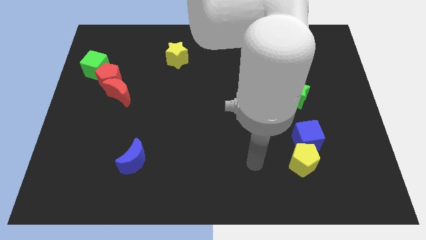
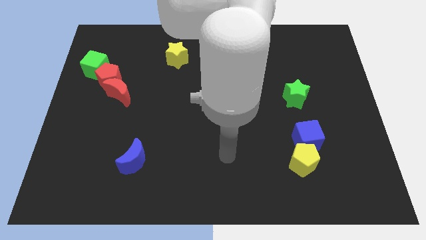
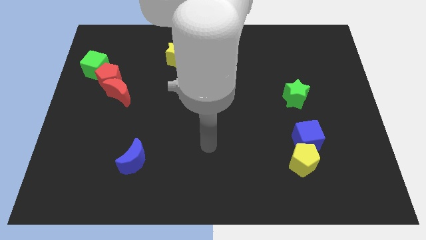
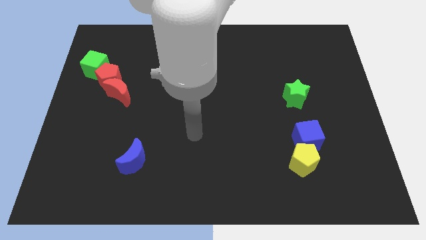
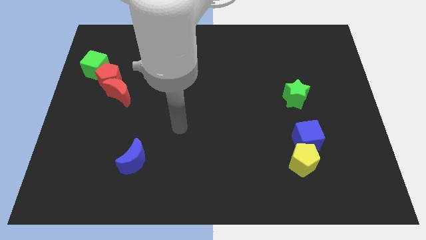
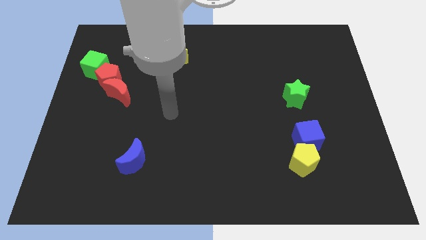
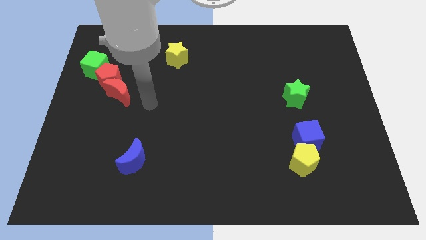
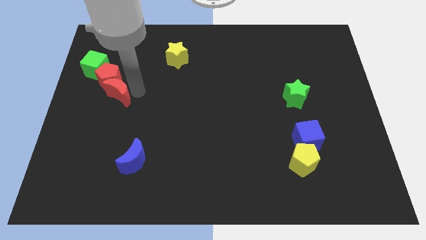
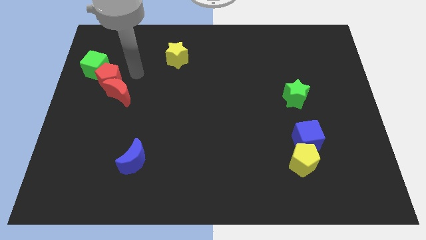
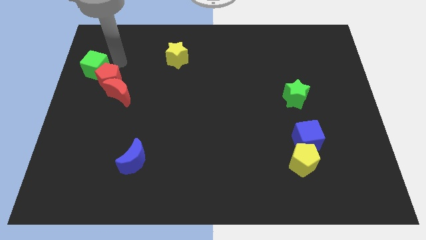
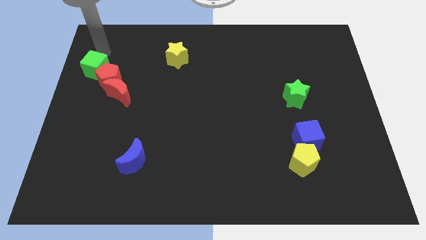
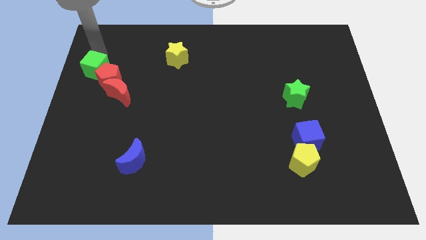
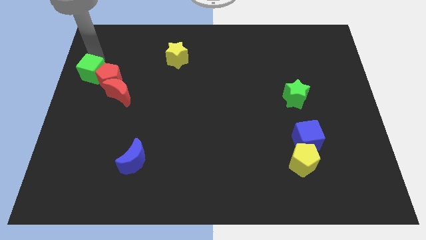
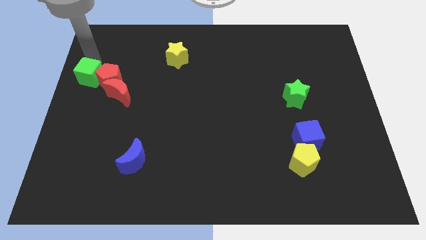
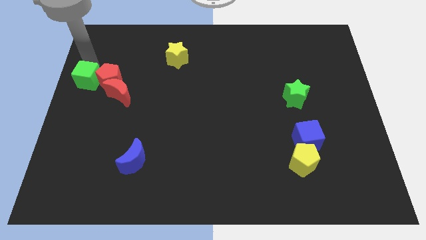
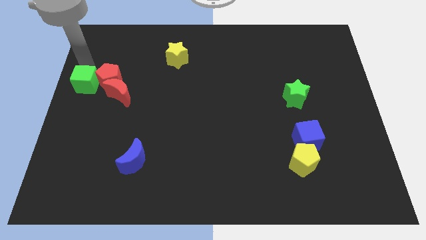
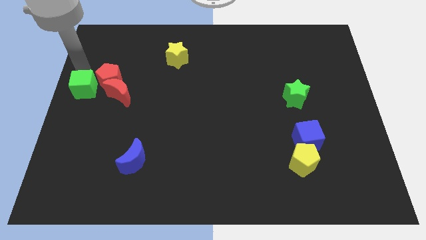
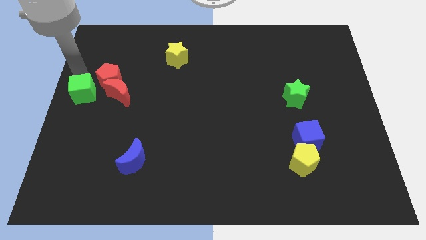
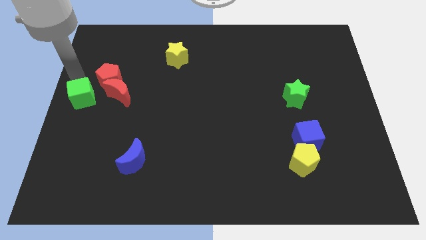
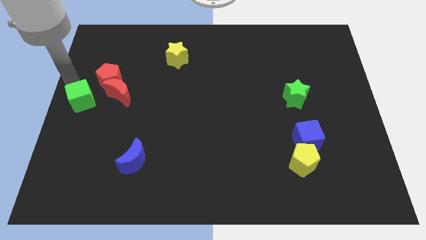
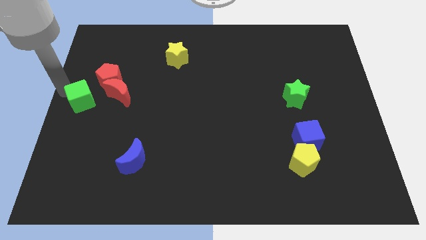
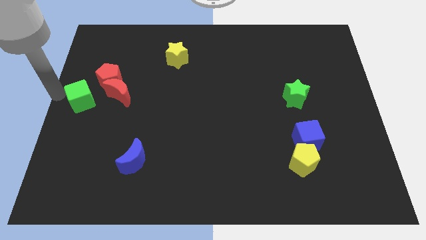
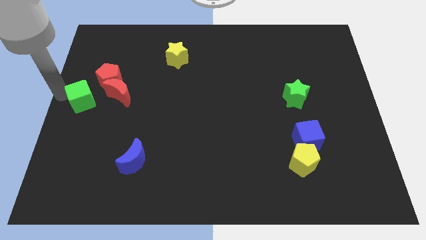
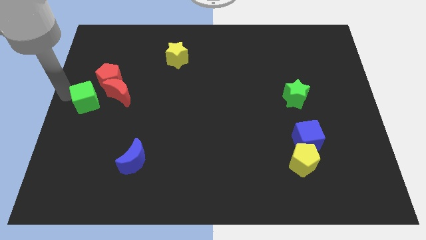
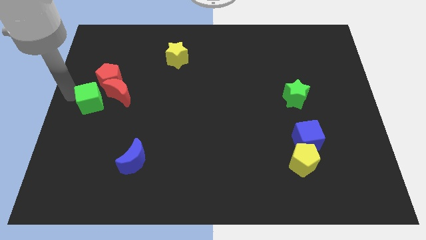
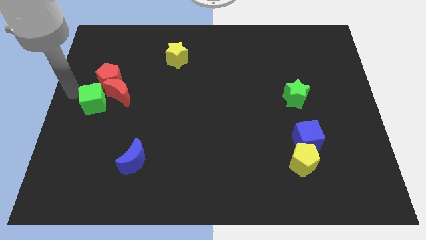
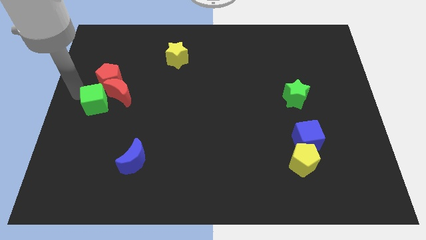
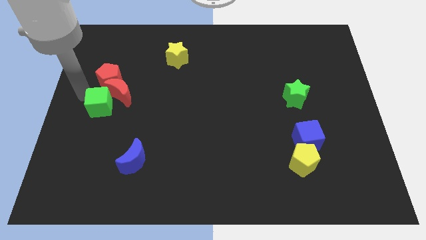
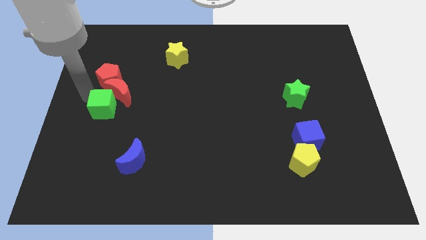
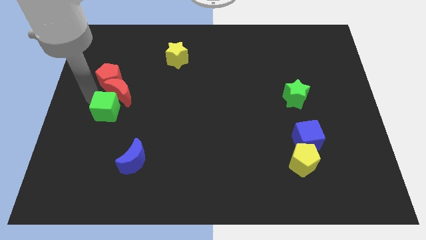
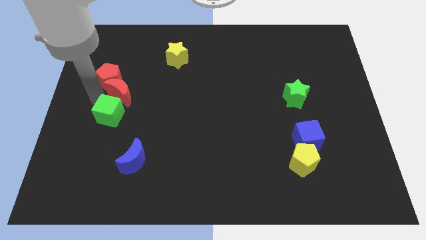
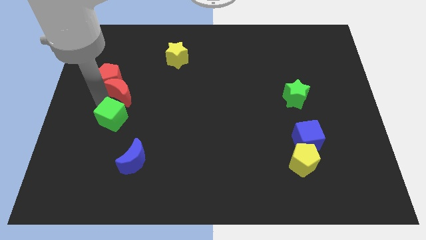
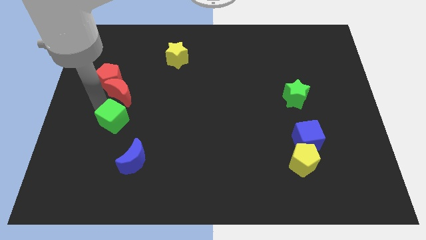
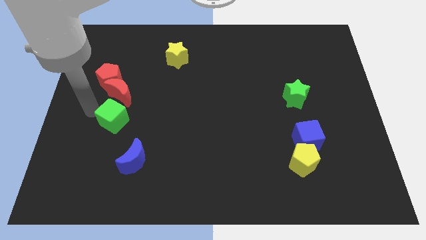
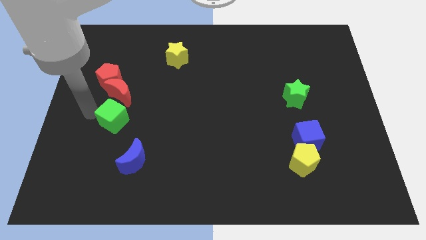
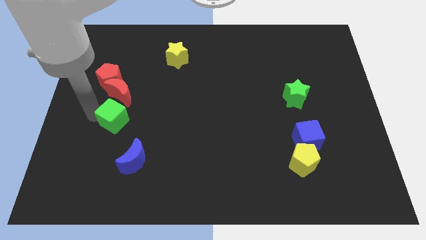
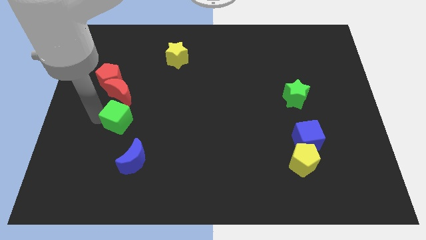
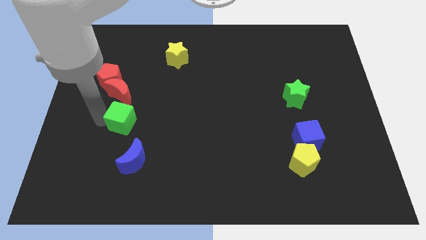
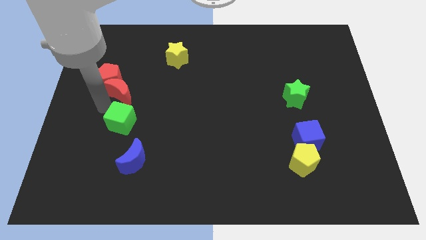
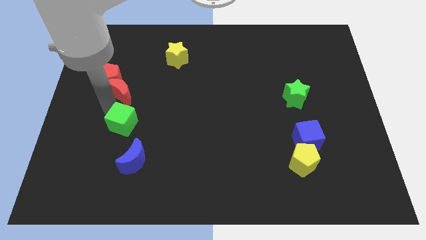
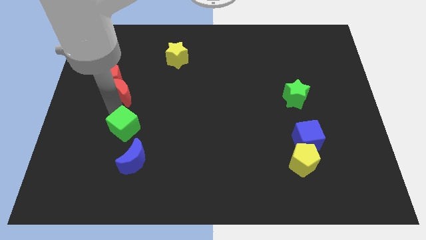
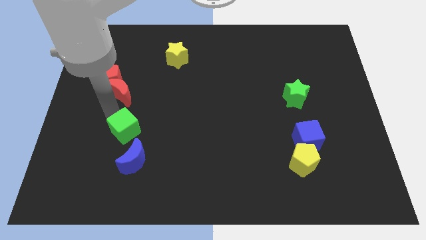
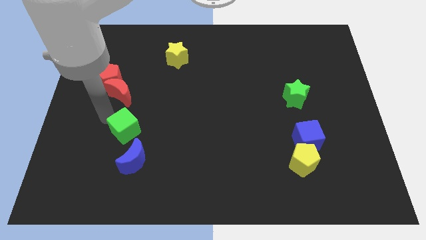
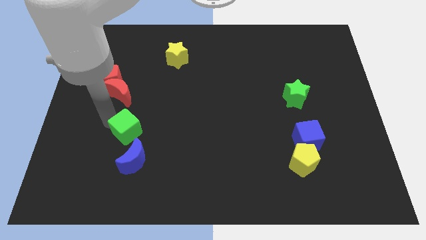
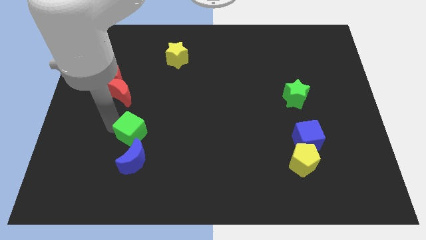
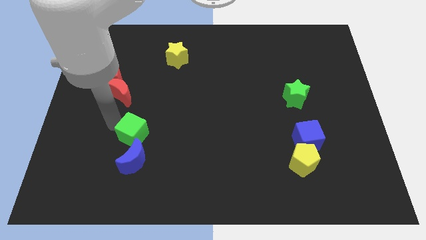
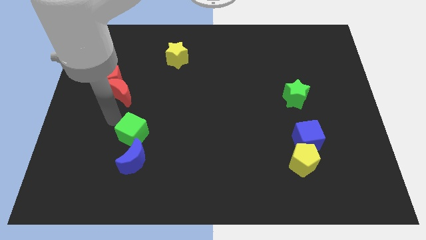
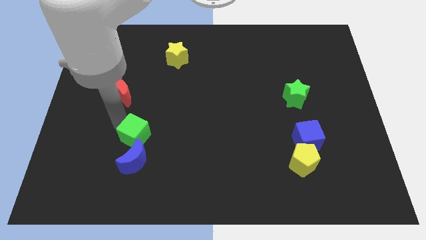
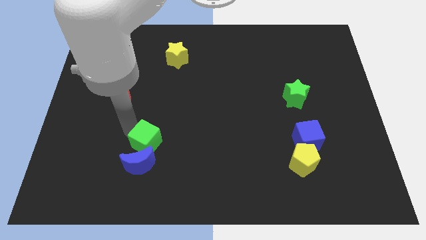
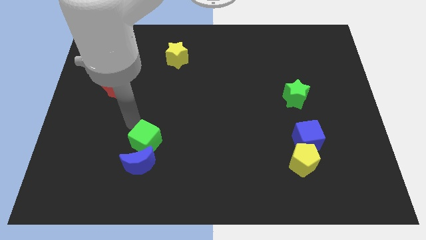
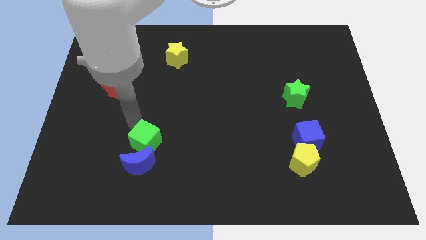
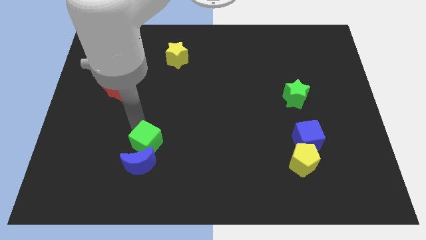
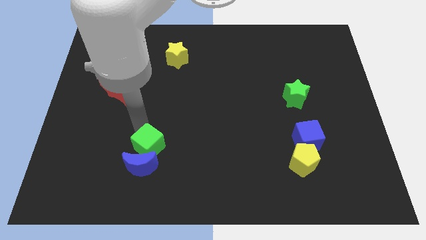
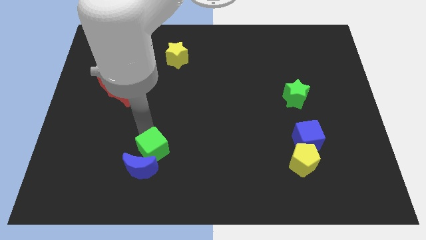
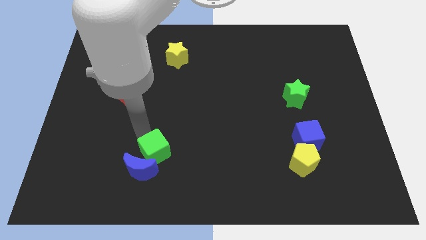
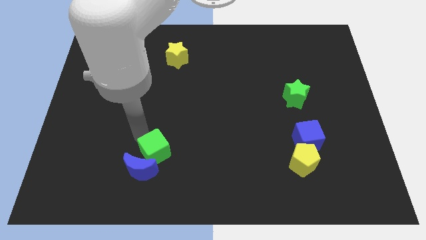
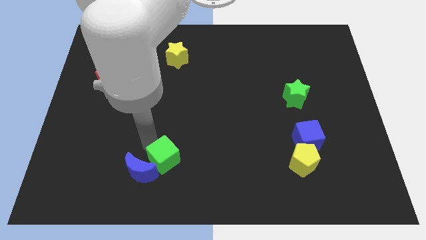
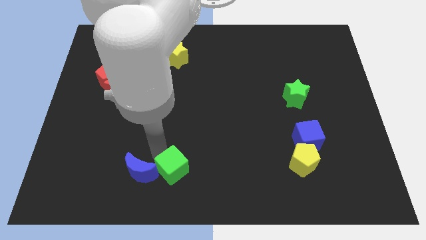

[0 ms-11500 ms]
put the green cube to the bottom side
